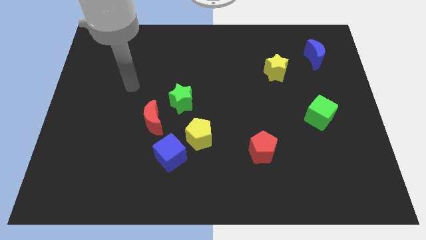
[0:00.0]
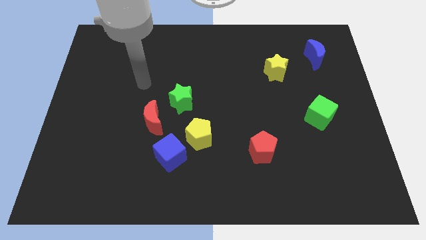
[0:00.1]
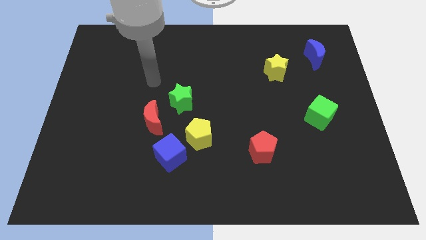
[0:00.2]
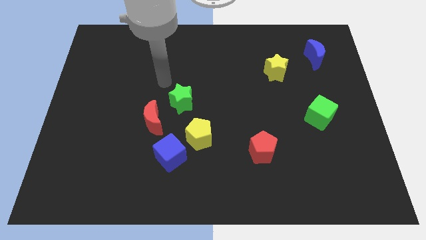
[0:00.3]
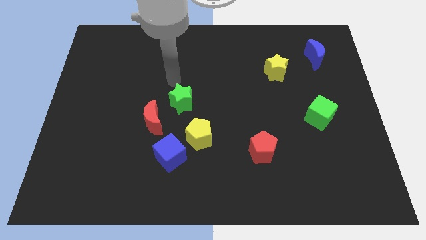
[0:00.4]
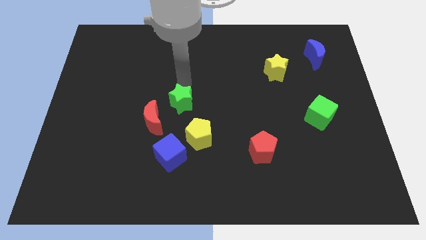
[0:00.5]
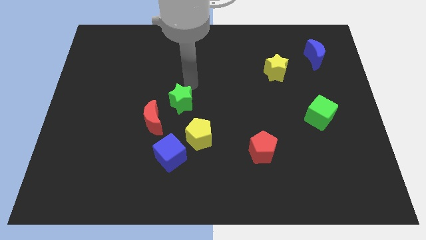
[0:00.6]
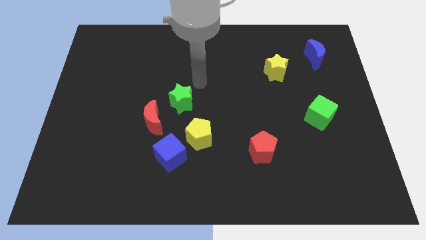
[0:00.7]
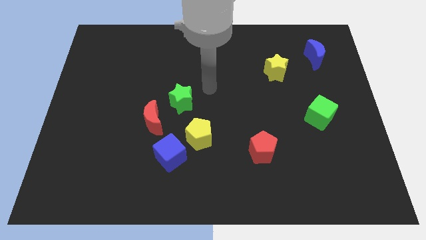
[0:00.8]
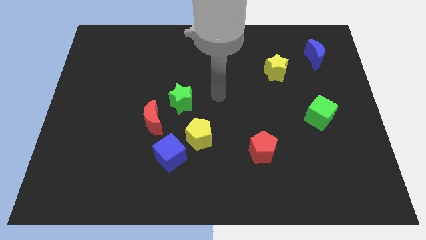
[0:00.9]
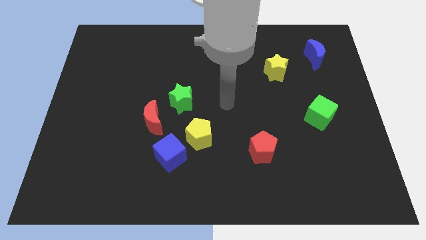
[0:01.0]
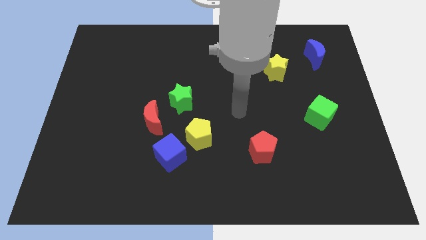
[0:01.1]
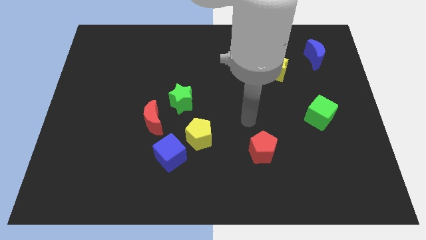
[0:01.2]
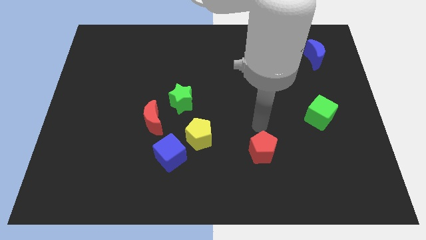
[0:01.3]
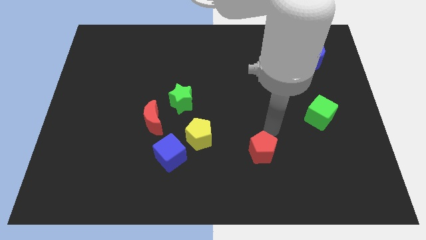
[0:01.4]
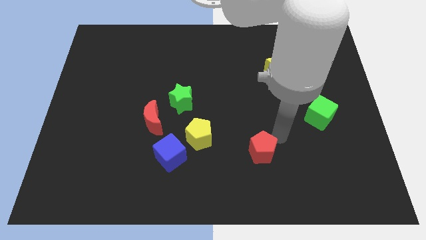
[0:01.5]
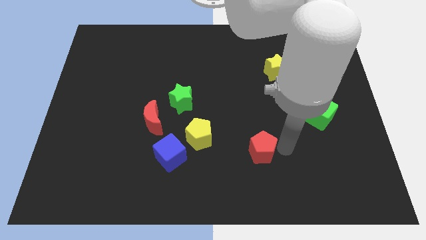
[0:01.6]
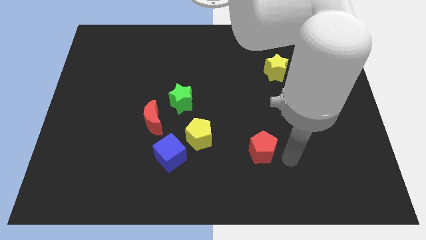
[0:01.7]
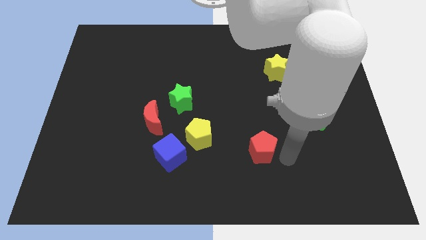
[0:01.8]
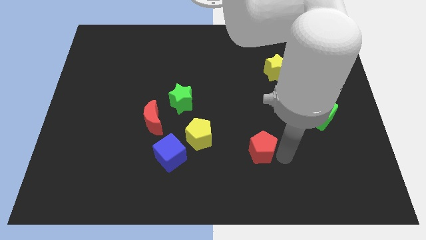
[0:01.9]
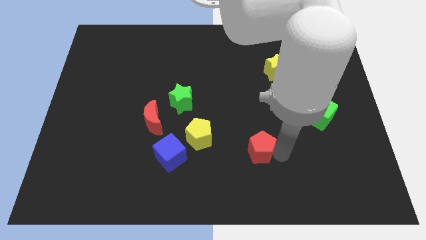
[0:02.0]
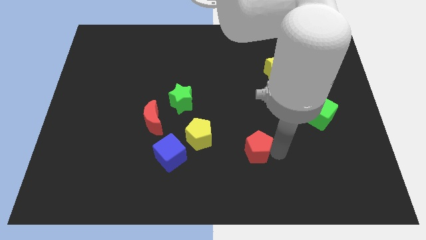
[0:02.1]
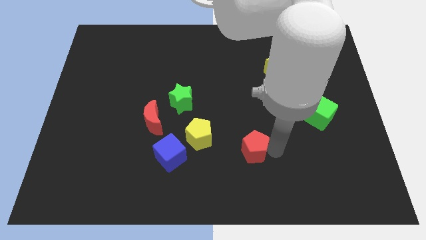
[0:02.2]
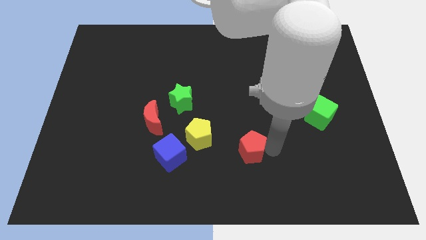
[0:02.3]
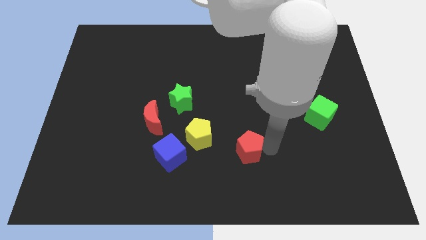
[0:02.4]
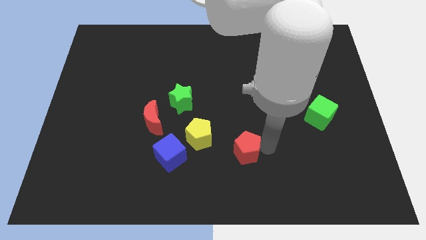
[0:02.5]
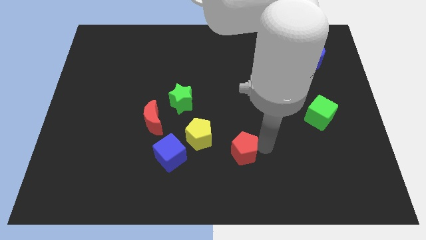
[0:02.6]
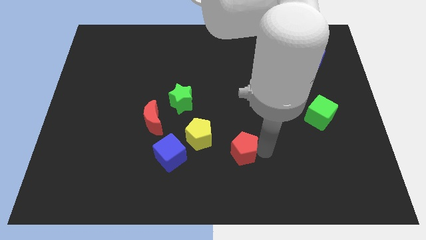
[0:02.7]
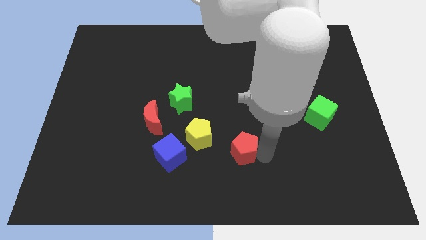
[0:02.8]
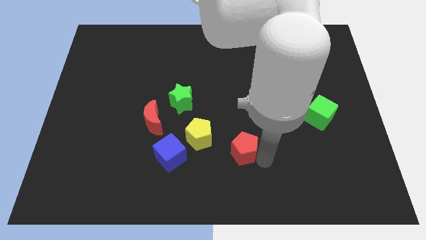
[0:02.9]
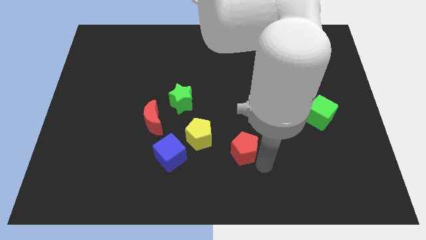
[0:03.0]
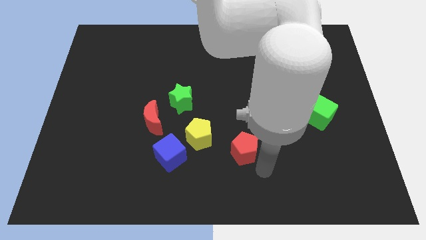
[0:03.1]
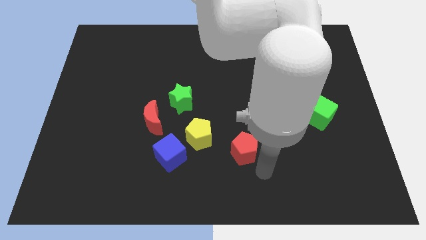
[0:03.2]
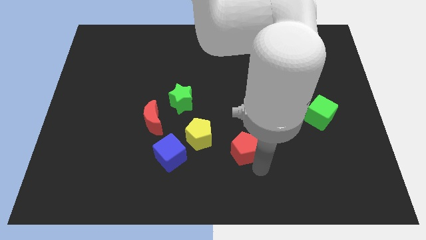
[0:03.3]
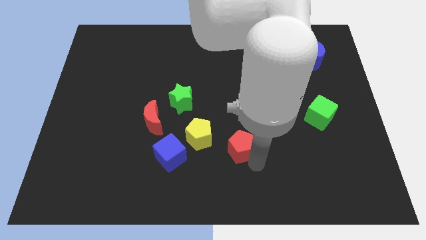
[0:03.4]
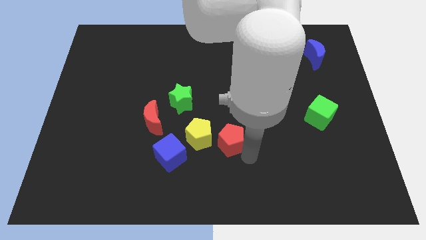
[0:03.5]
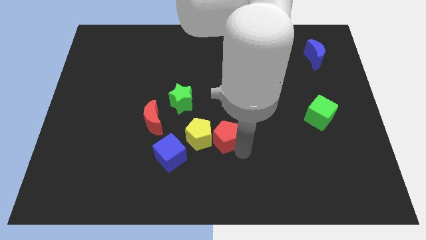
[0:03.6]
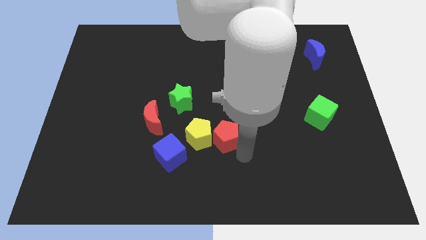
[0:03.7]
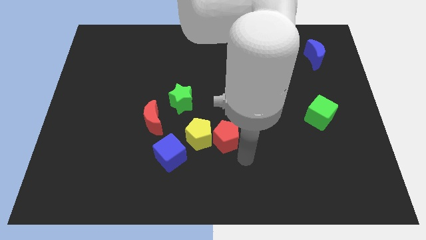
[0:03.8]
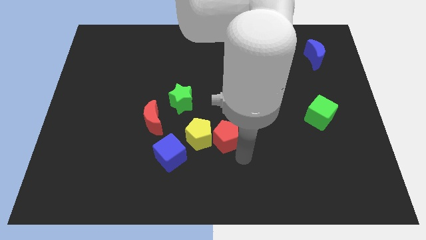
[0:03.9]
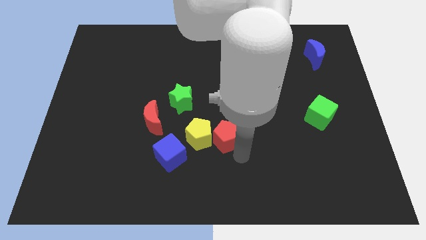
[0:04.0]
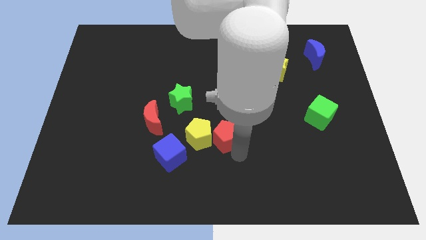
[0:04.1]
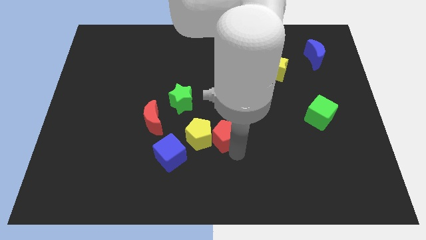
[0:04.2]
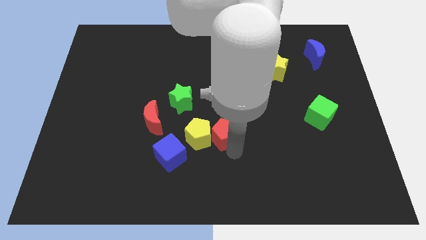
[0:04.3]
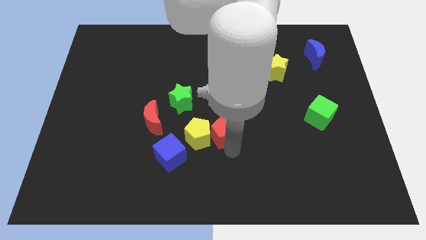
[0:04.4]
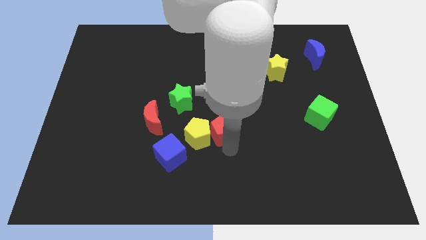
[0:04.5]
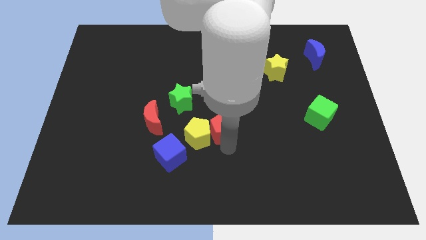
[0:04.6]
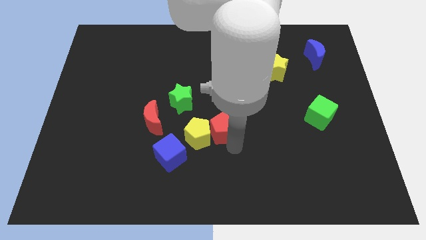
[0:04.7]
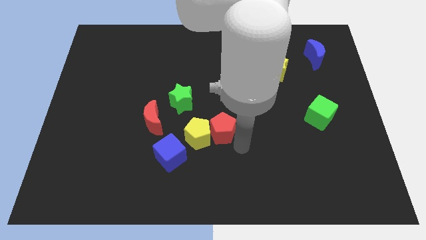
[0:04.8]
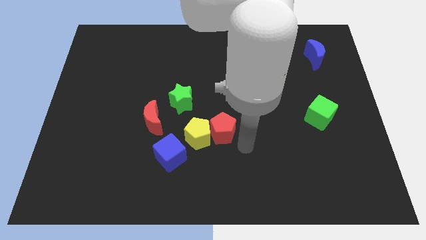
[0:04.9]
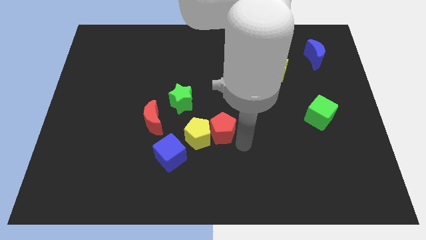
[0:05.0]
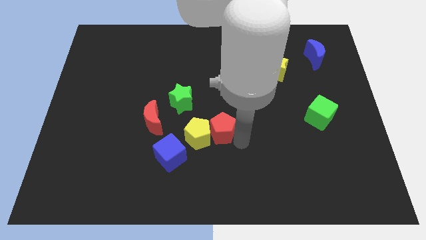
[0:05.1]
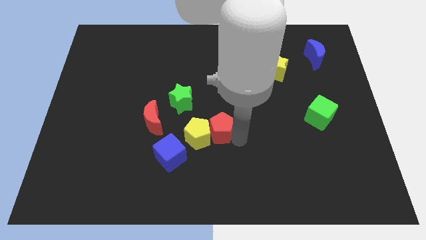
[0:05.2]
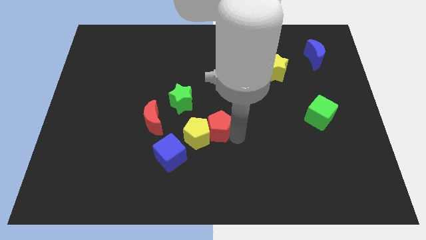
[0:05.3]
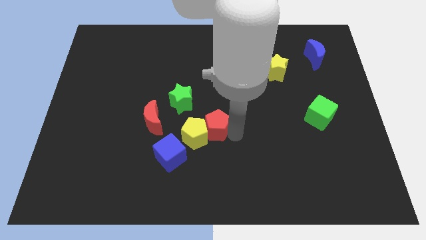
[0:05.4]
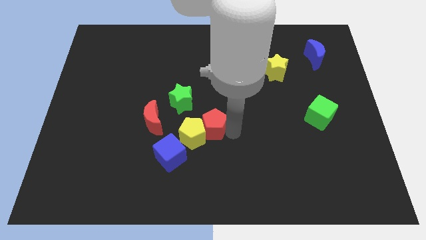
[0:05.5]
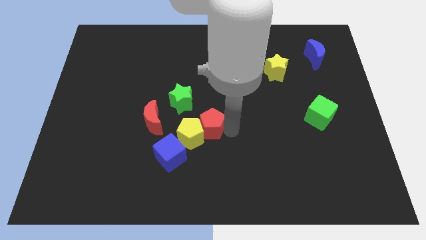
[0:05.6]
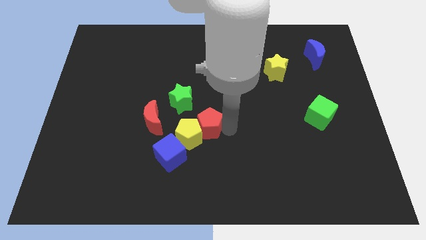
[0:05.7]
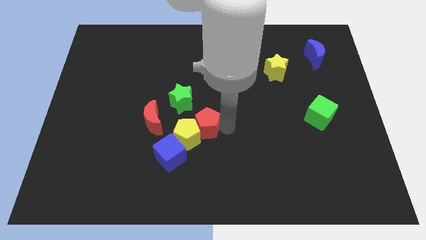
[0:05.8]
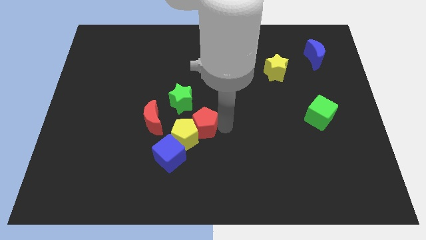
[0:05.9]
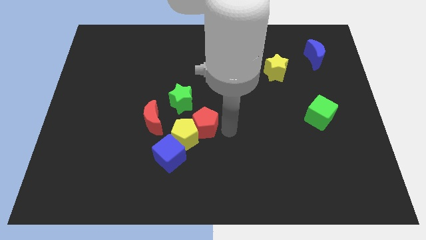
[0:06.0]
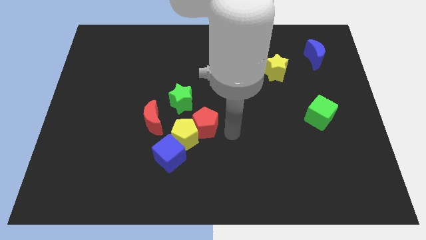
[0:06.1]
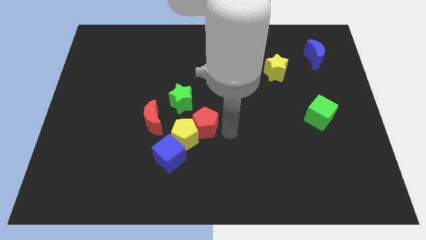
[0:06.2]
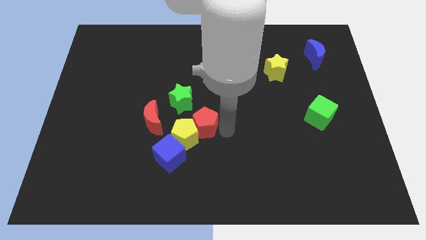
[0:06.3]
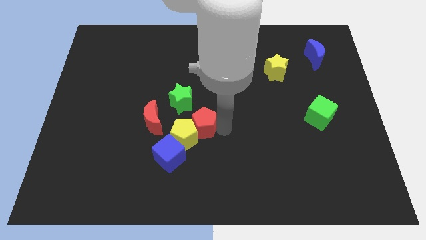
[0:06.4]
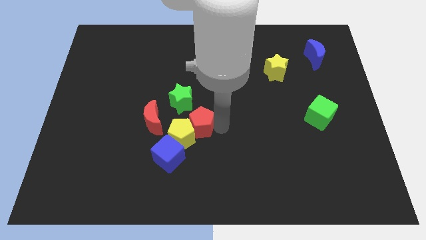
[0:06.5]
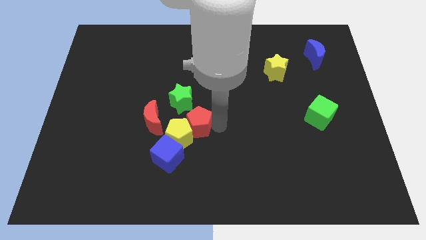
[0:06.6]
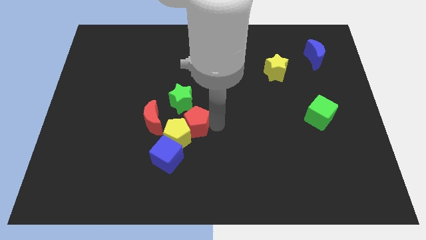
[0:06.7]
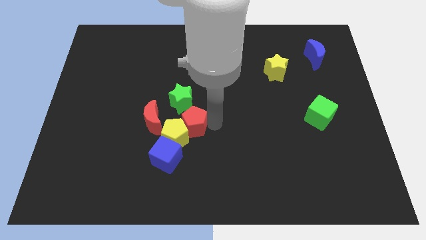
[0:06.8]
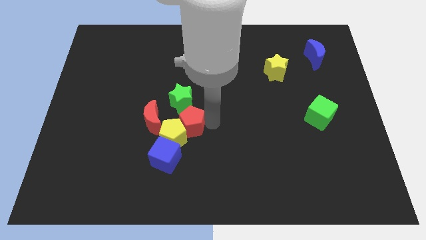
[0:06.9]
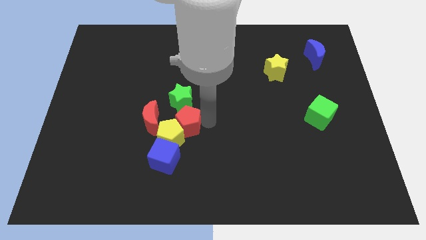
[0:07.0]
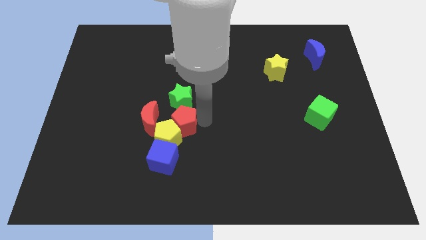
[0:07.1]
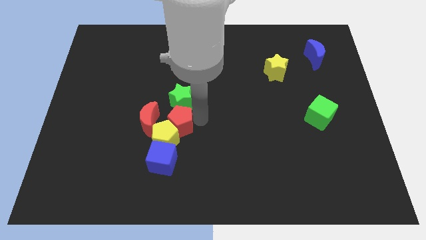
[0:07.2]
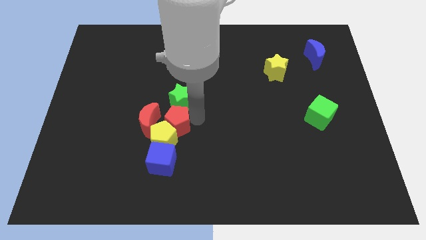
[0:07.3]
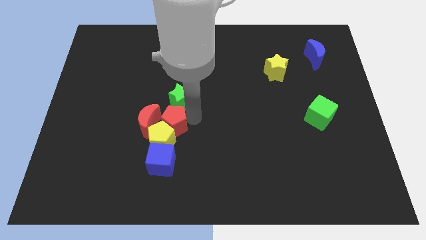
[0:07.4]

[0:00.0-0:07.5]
put the red pentagon towards the red moon
